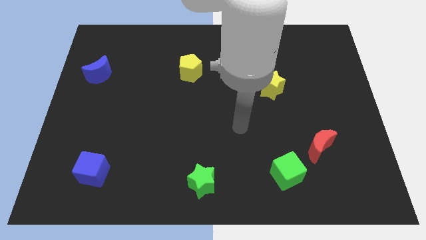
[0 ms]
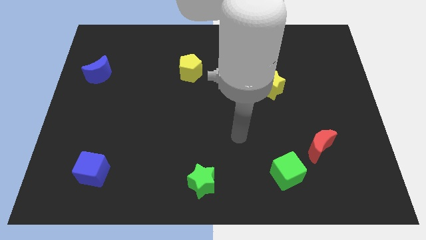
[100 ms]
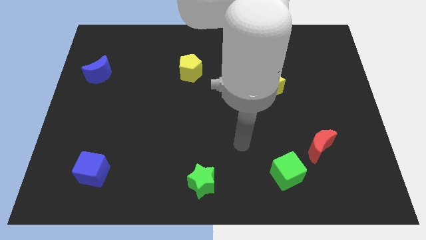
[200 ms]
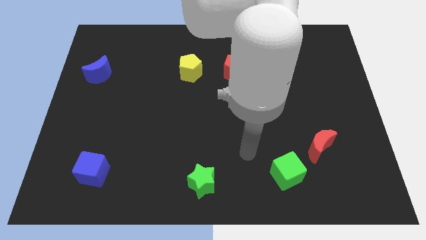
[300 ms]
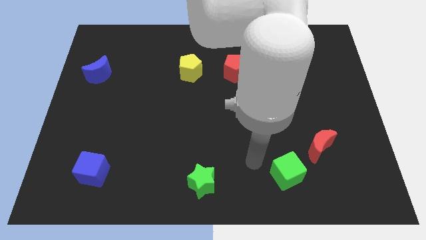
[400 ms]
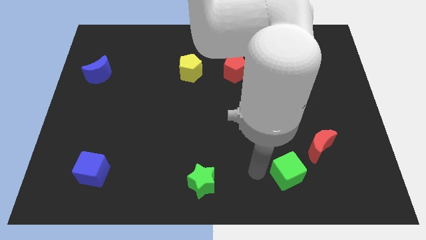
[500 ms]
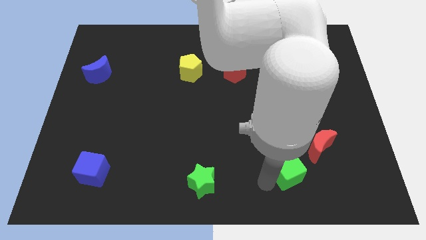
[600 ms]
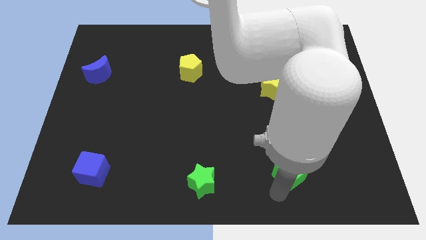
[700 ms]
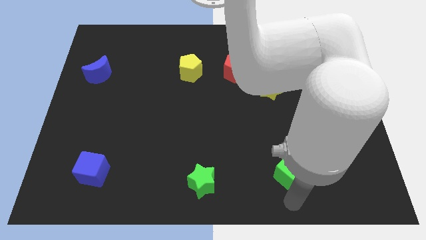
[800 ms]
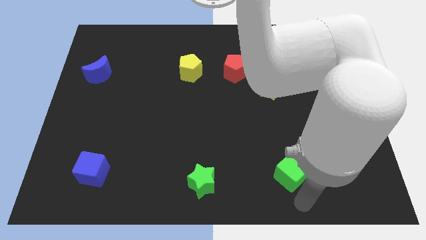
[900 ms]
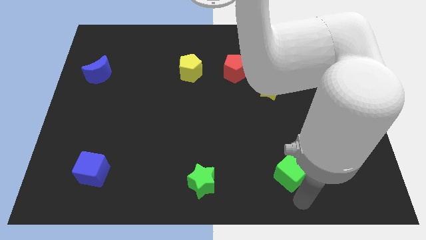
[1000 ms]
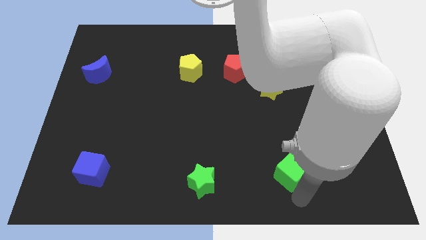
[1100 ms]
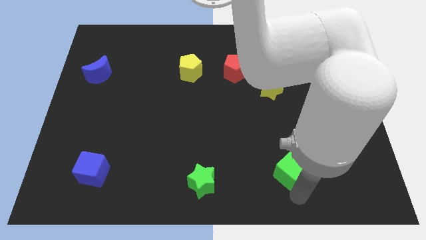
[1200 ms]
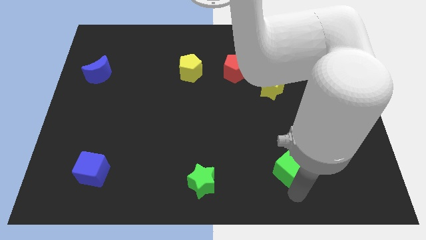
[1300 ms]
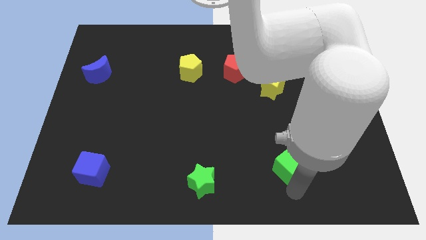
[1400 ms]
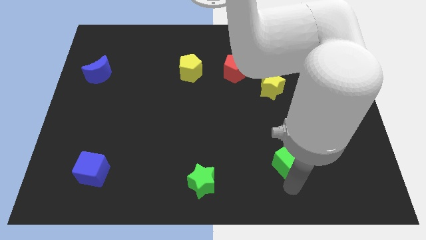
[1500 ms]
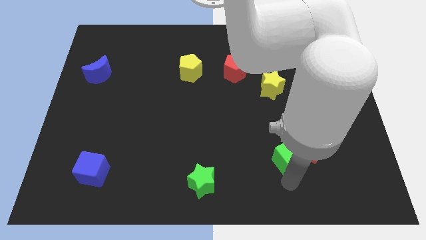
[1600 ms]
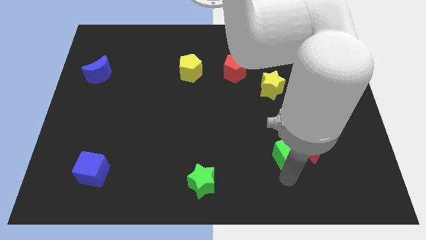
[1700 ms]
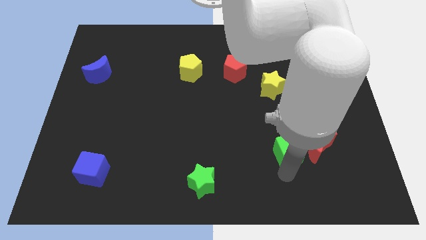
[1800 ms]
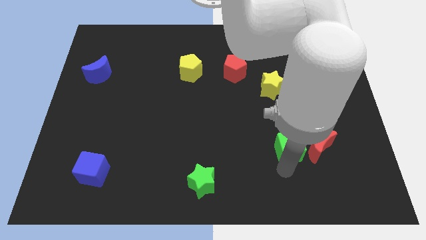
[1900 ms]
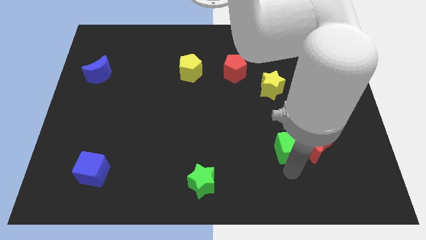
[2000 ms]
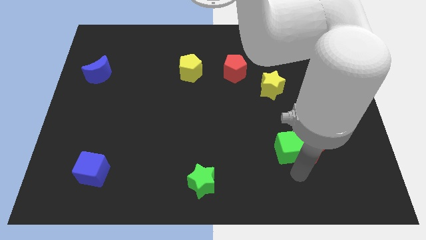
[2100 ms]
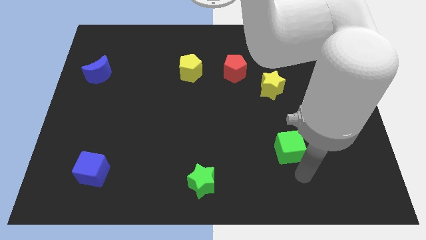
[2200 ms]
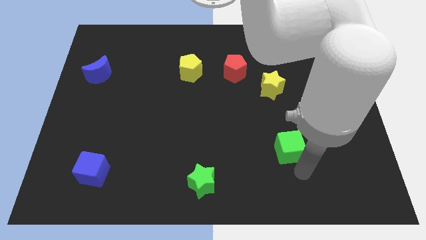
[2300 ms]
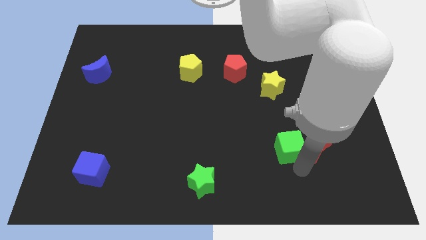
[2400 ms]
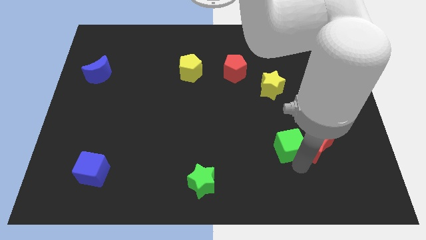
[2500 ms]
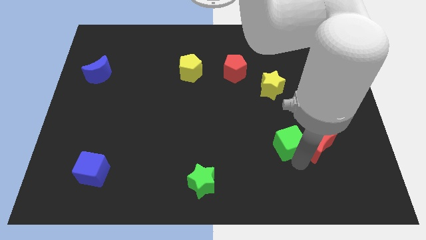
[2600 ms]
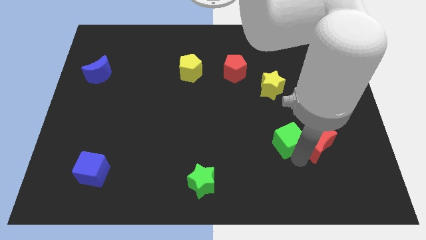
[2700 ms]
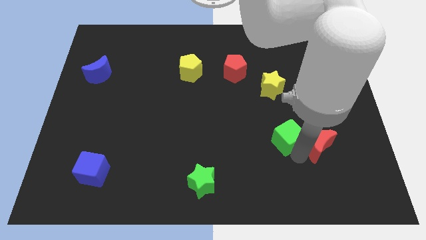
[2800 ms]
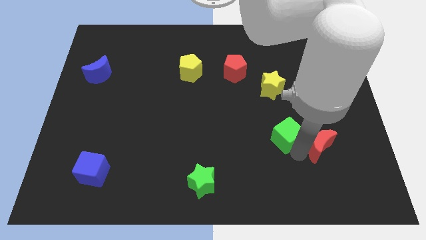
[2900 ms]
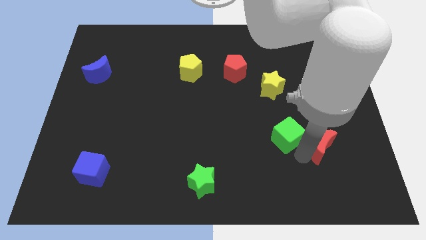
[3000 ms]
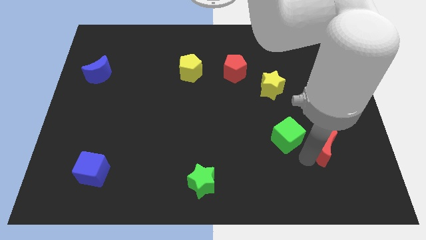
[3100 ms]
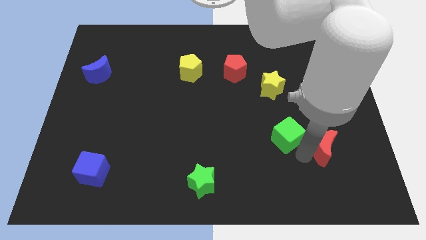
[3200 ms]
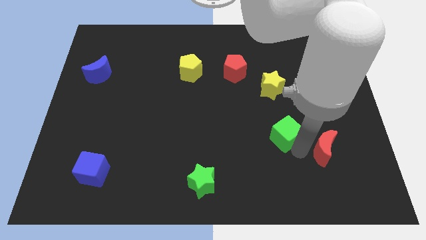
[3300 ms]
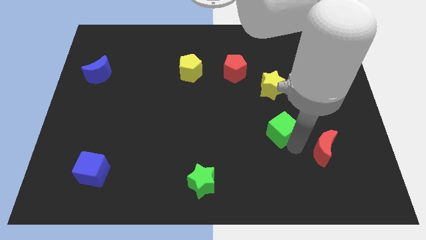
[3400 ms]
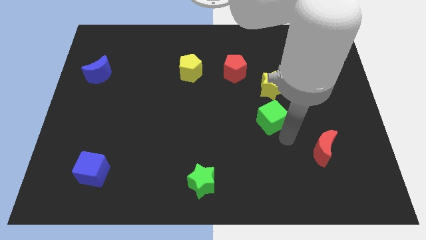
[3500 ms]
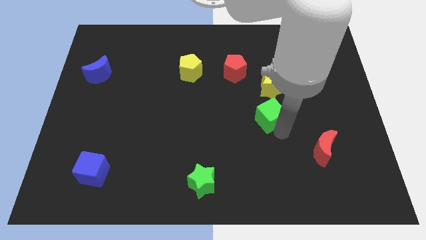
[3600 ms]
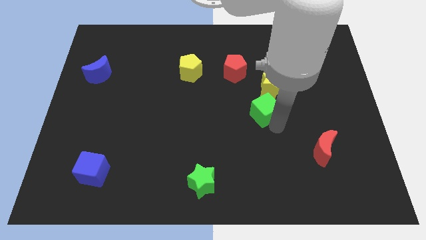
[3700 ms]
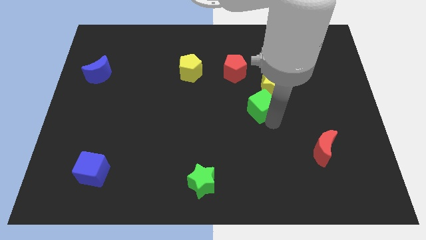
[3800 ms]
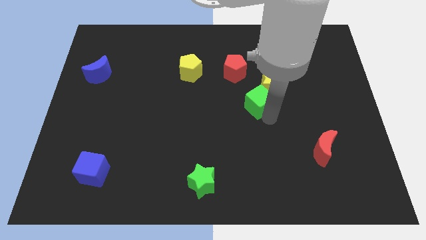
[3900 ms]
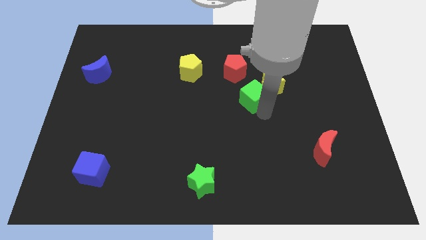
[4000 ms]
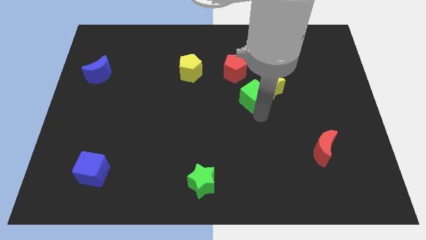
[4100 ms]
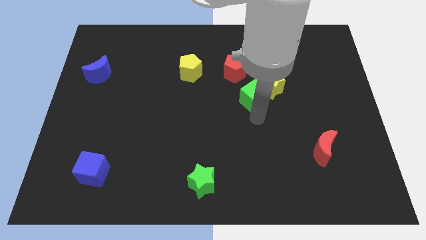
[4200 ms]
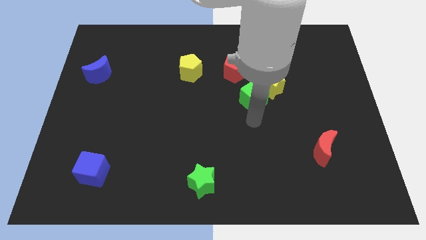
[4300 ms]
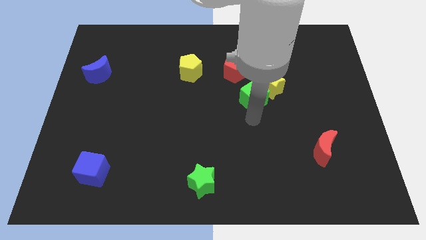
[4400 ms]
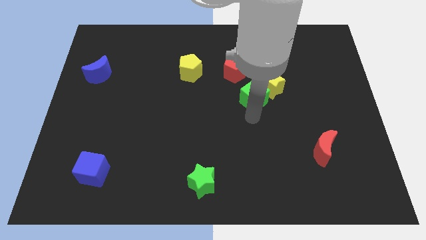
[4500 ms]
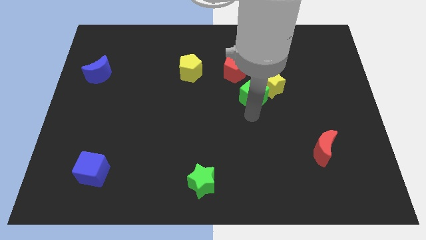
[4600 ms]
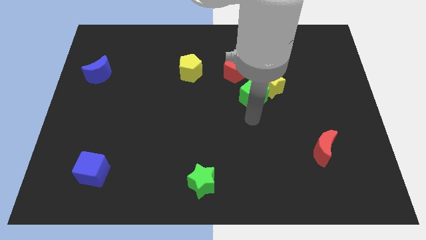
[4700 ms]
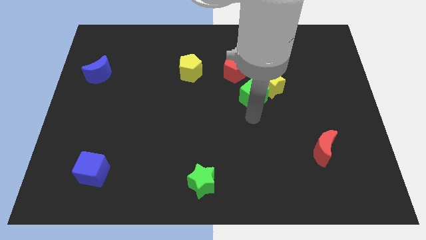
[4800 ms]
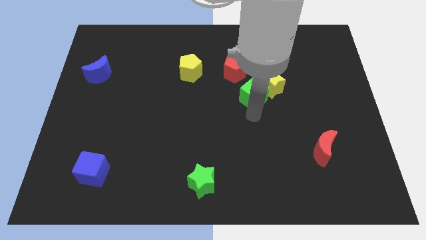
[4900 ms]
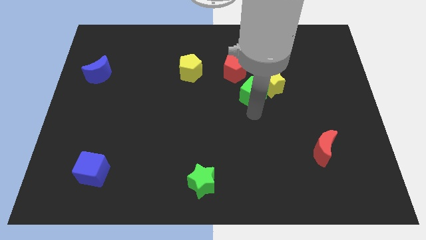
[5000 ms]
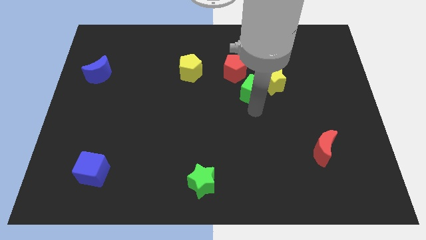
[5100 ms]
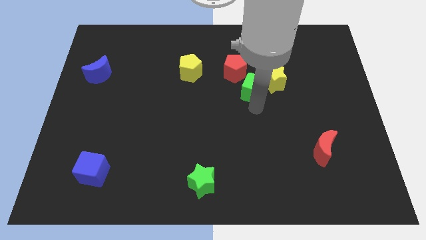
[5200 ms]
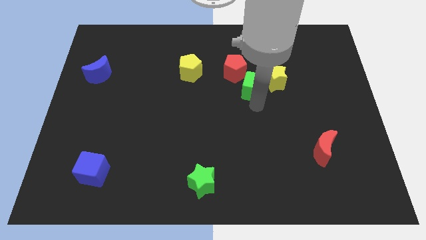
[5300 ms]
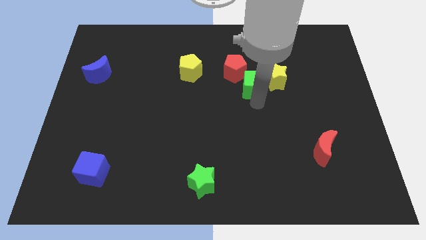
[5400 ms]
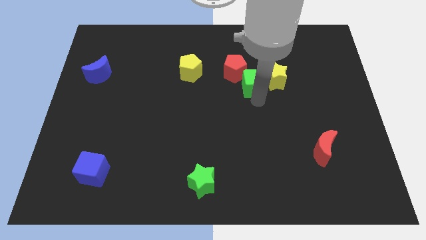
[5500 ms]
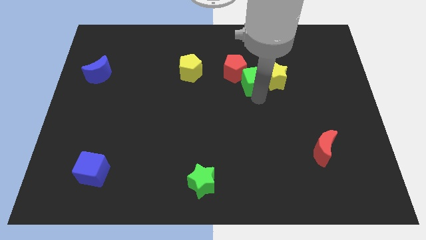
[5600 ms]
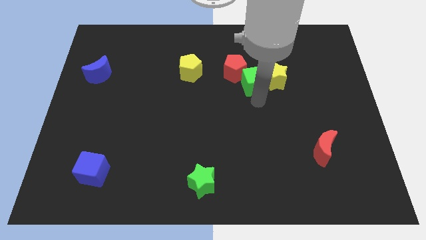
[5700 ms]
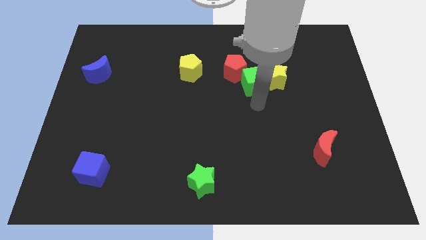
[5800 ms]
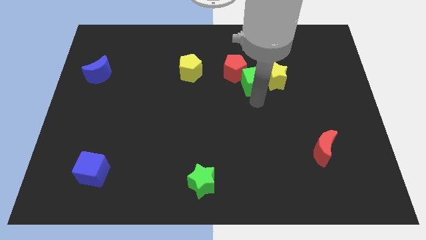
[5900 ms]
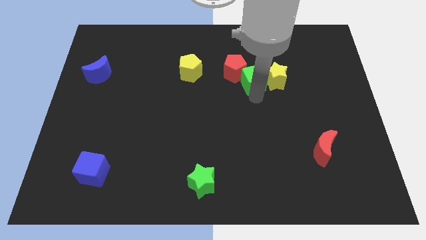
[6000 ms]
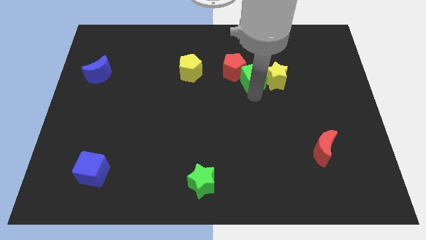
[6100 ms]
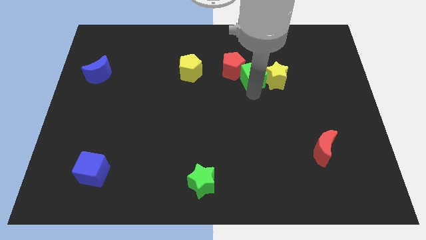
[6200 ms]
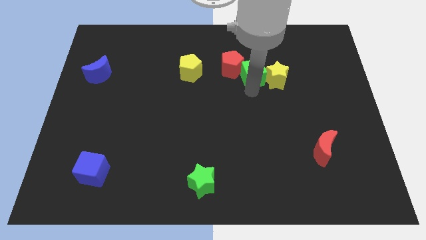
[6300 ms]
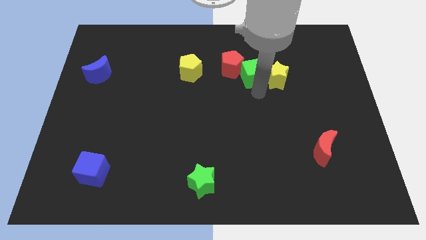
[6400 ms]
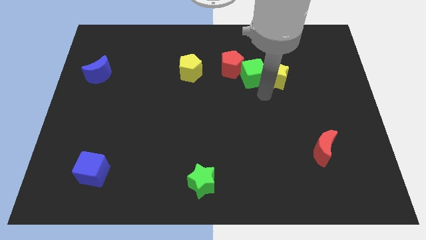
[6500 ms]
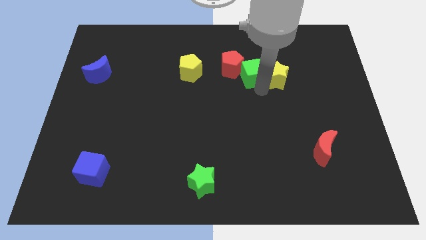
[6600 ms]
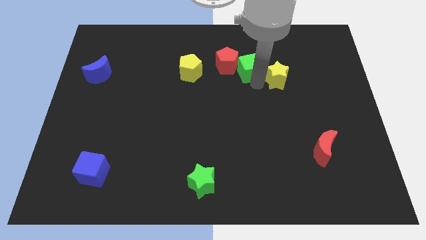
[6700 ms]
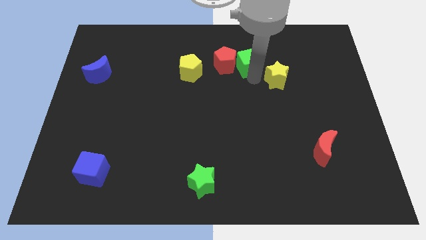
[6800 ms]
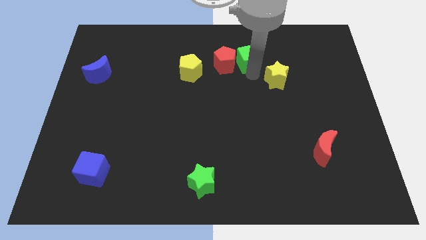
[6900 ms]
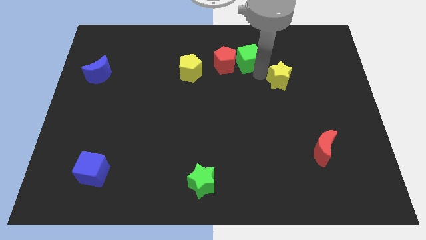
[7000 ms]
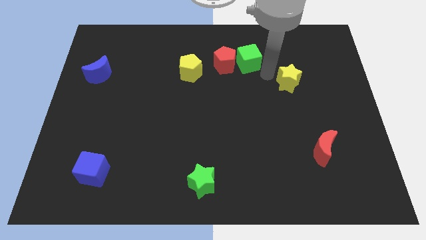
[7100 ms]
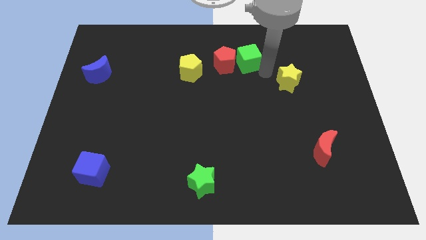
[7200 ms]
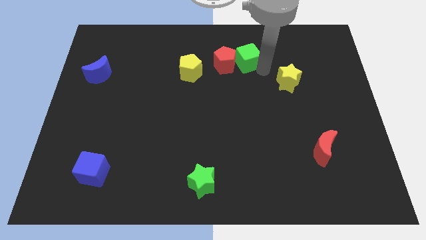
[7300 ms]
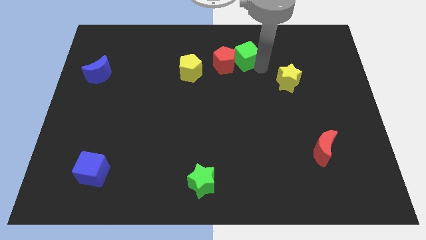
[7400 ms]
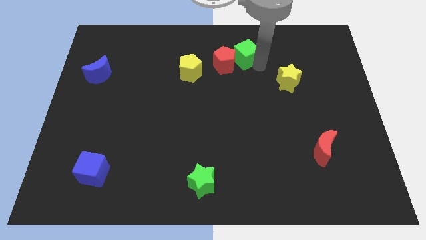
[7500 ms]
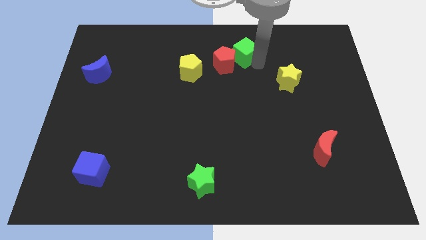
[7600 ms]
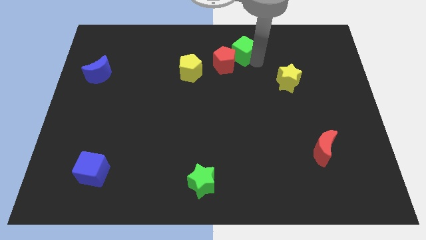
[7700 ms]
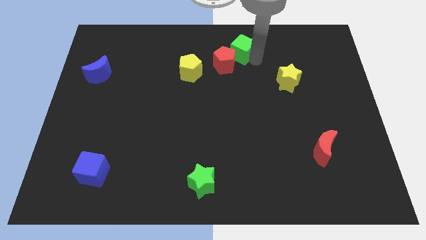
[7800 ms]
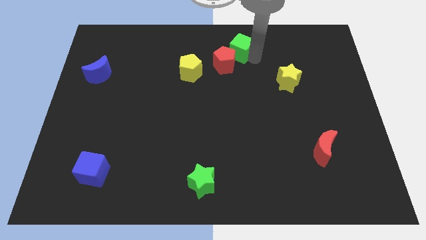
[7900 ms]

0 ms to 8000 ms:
push the green cube to the top
